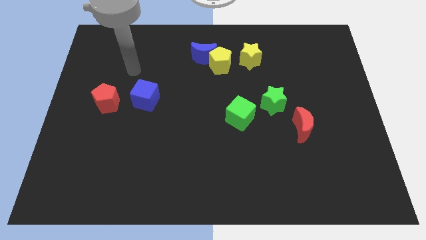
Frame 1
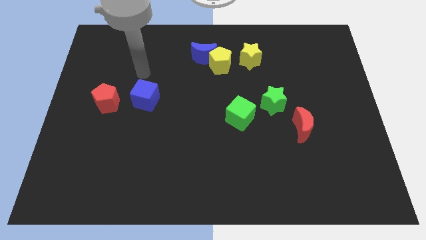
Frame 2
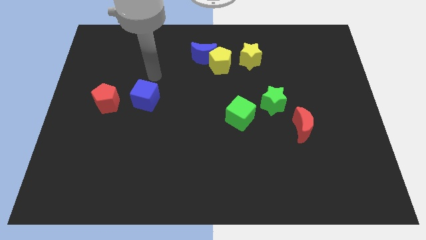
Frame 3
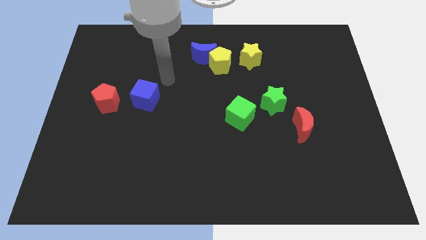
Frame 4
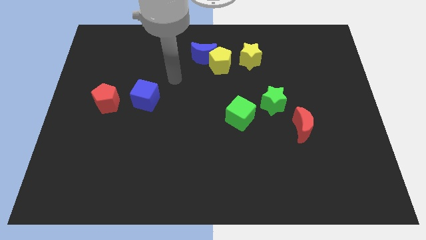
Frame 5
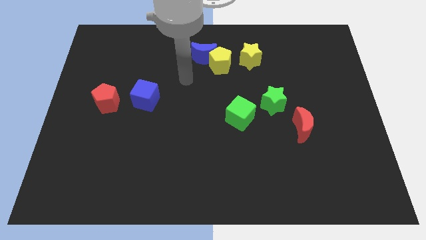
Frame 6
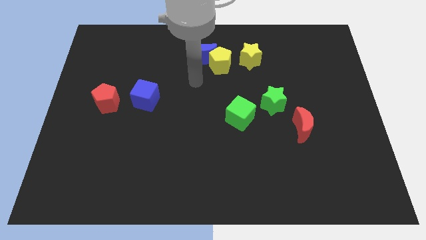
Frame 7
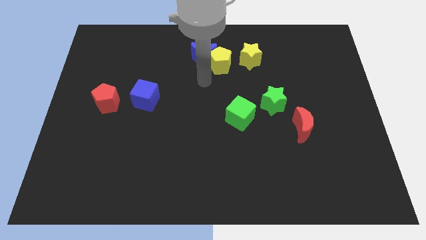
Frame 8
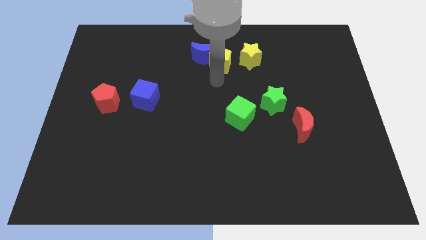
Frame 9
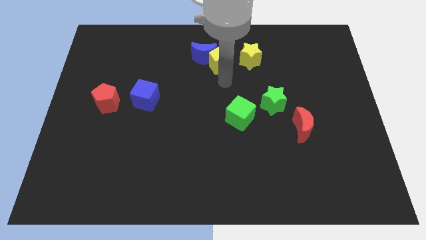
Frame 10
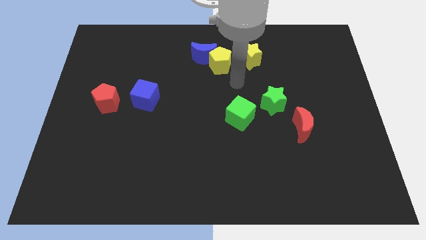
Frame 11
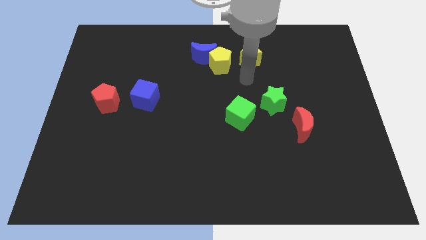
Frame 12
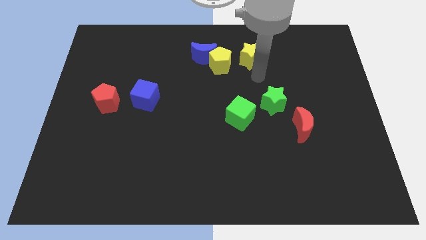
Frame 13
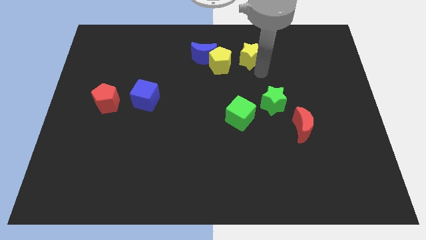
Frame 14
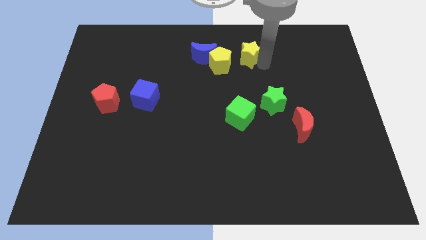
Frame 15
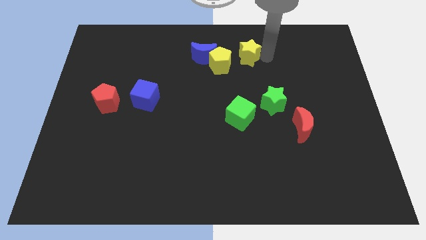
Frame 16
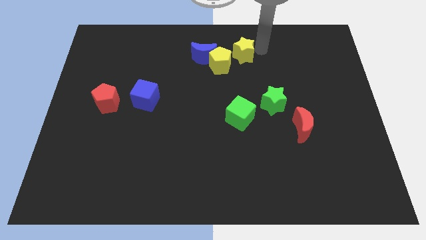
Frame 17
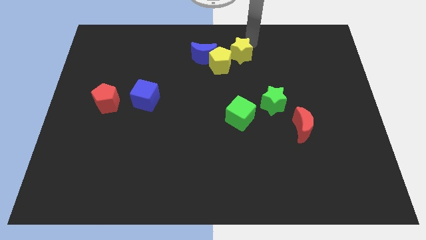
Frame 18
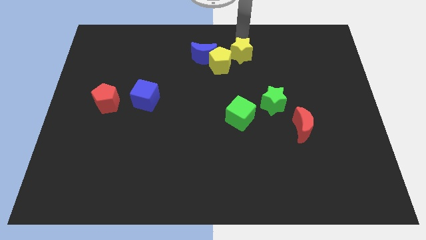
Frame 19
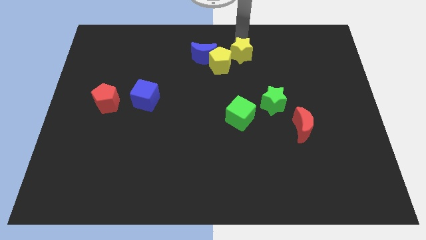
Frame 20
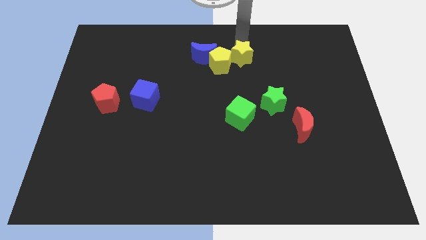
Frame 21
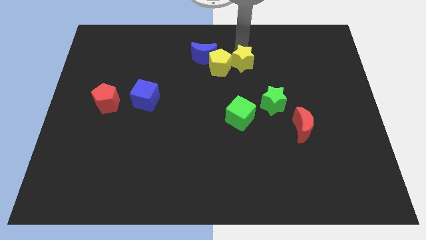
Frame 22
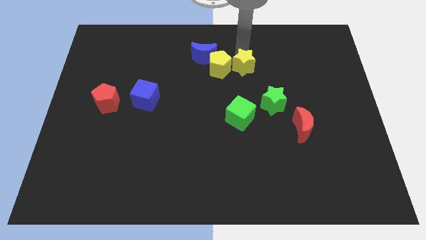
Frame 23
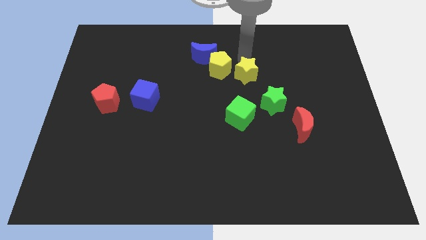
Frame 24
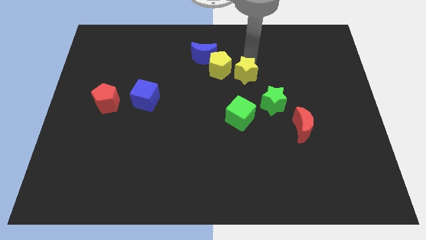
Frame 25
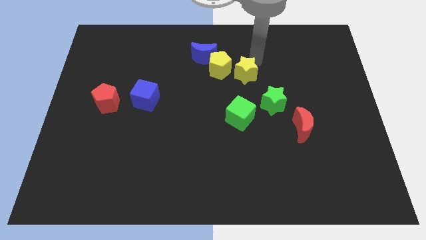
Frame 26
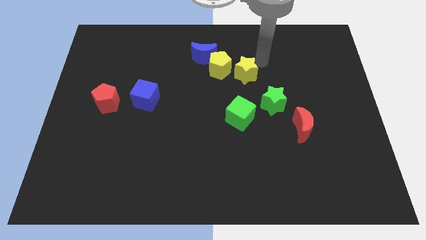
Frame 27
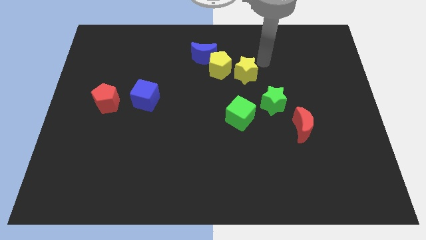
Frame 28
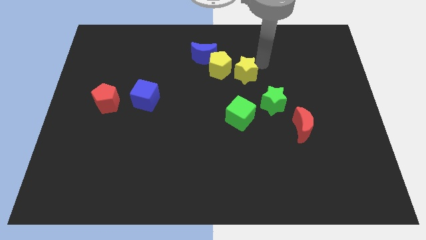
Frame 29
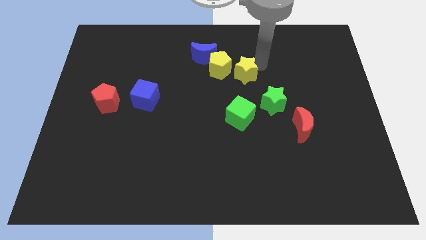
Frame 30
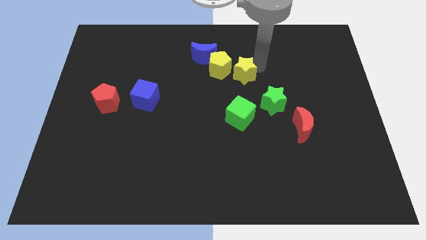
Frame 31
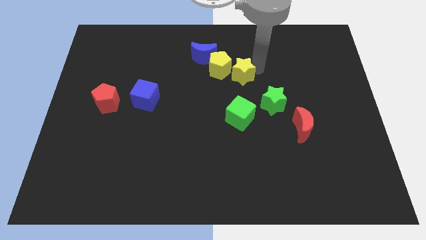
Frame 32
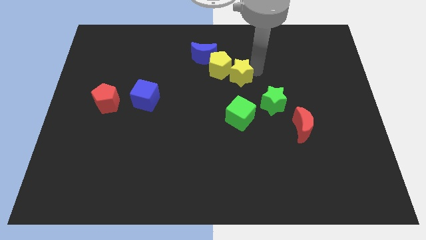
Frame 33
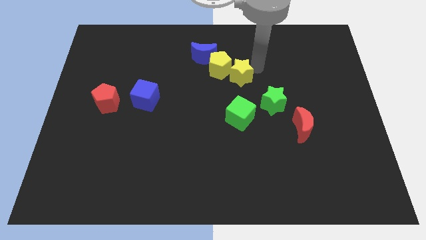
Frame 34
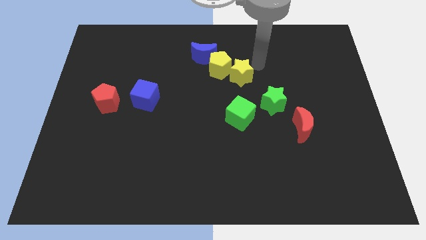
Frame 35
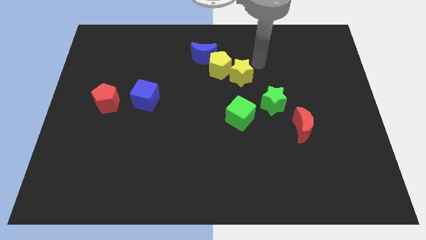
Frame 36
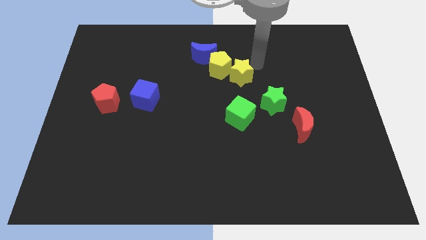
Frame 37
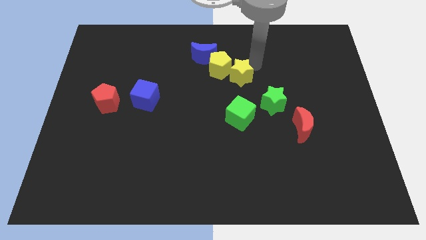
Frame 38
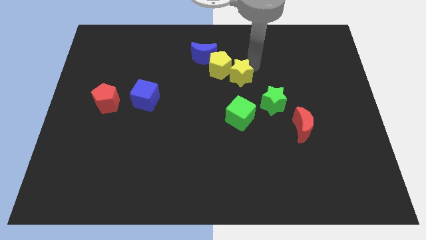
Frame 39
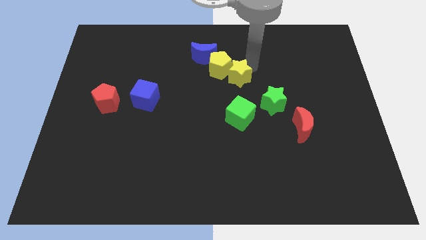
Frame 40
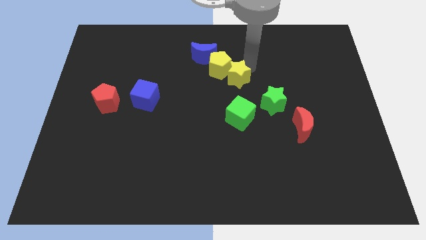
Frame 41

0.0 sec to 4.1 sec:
slide the yellow star a little bit diagonally down and left

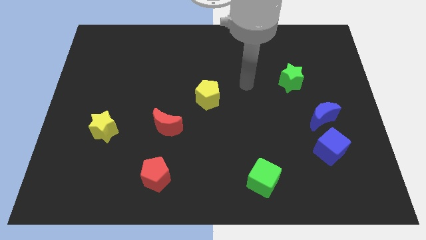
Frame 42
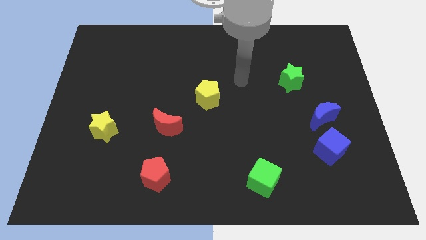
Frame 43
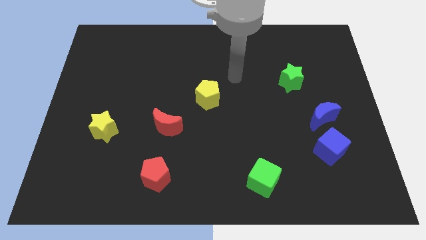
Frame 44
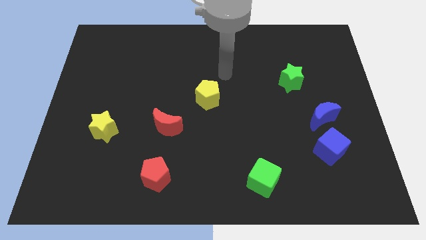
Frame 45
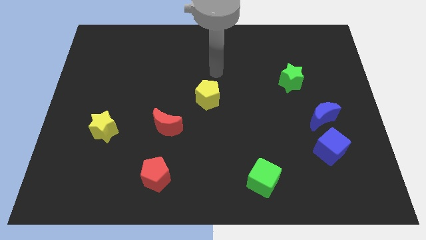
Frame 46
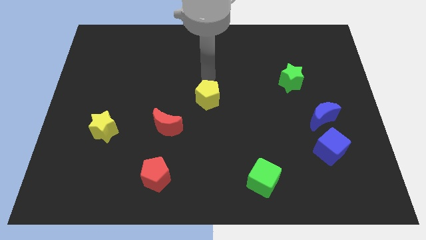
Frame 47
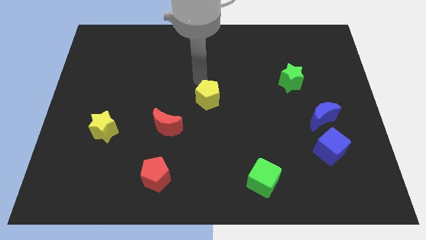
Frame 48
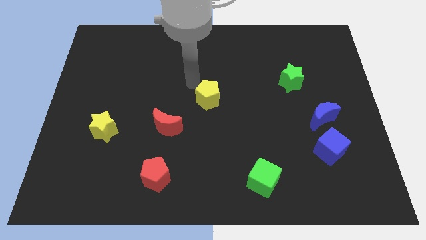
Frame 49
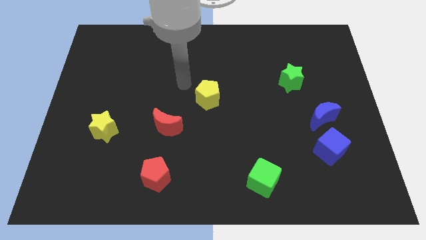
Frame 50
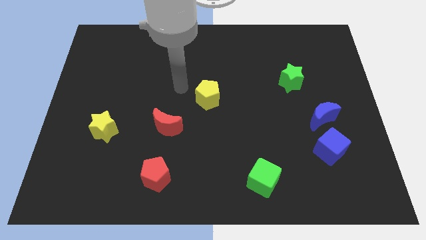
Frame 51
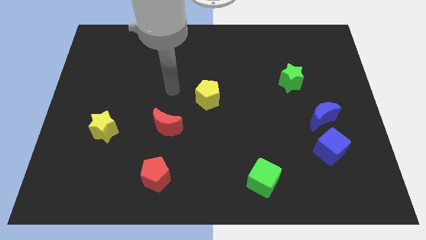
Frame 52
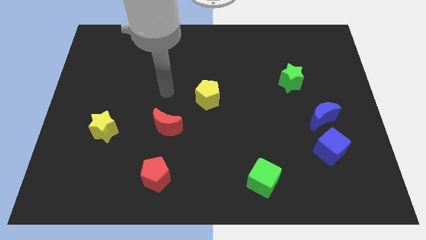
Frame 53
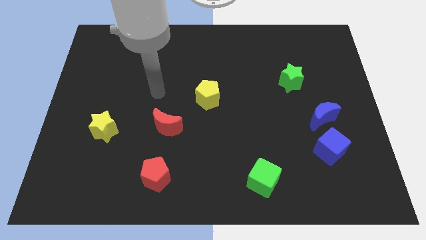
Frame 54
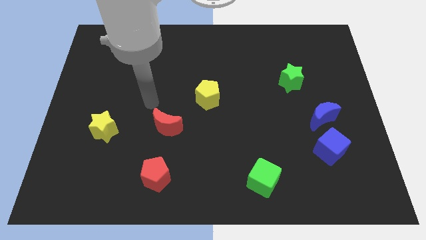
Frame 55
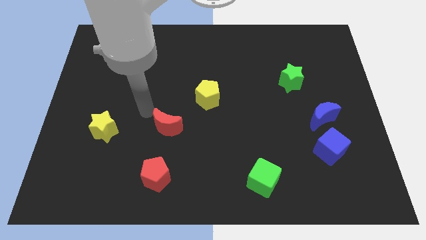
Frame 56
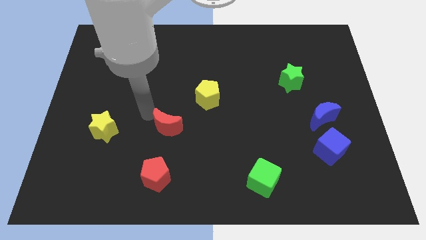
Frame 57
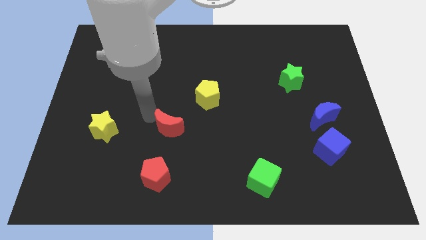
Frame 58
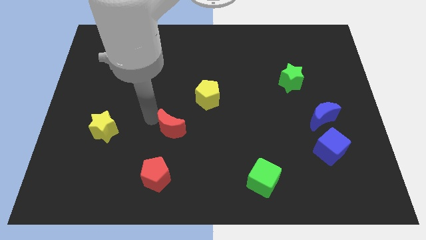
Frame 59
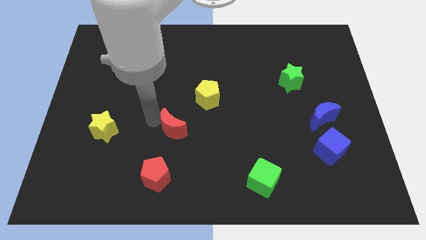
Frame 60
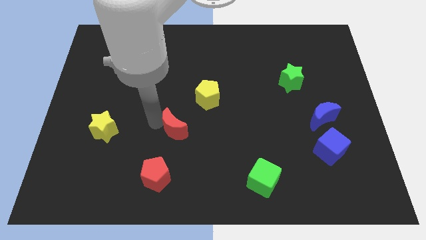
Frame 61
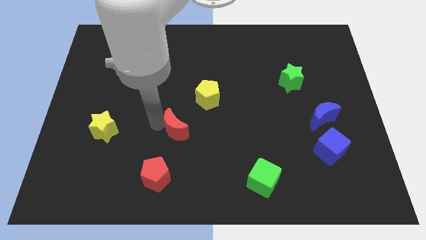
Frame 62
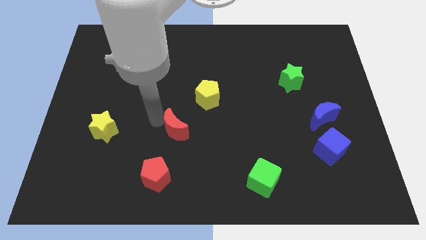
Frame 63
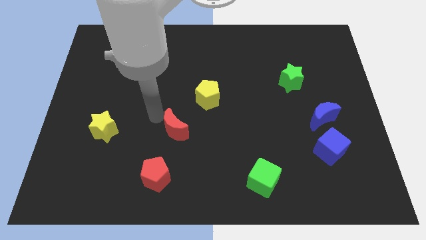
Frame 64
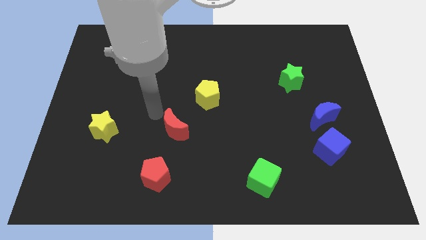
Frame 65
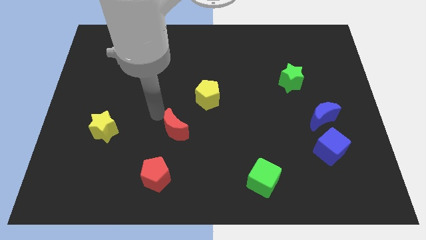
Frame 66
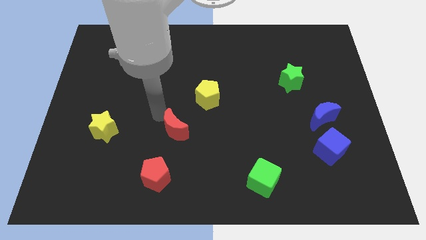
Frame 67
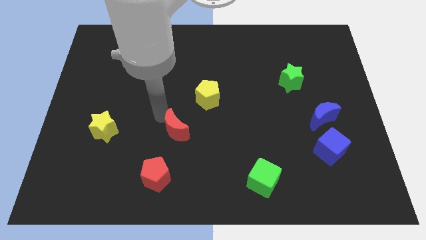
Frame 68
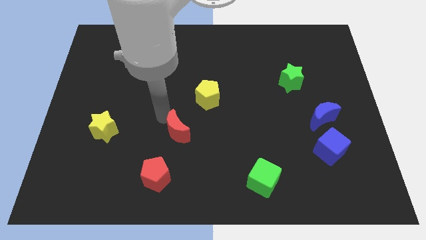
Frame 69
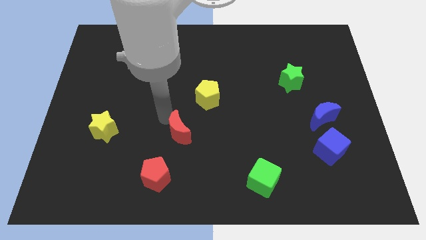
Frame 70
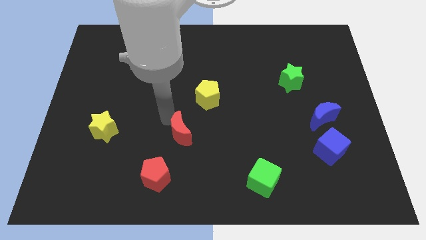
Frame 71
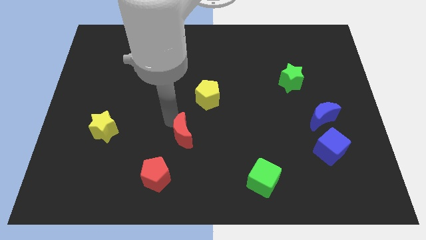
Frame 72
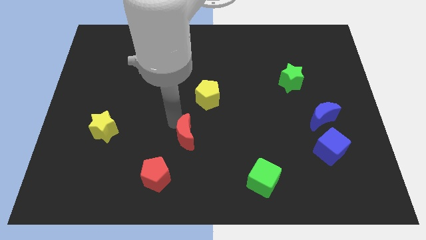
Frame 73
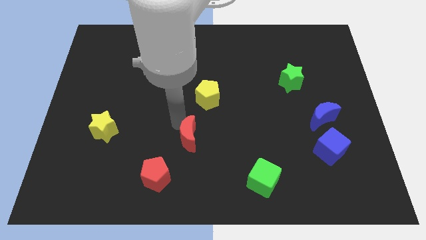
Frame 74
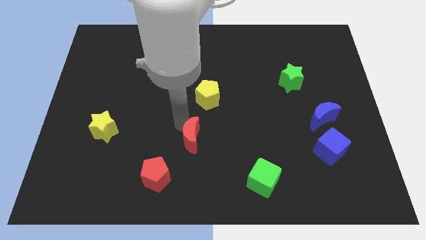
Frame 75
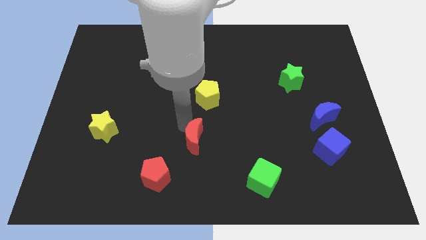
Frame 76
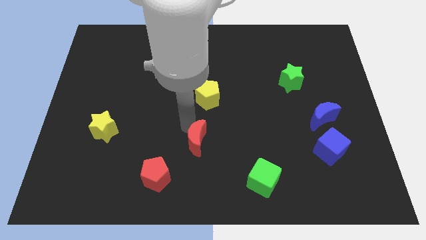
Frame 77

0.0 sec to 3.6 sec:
push the red moon a bit diagonally down and to the right

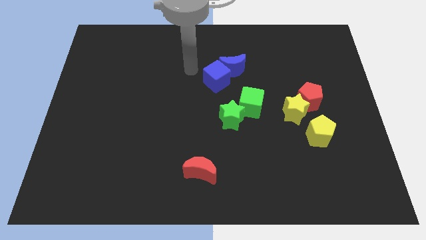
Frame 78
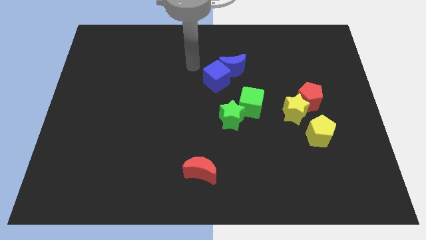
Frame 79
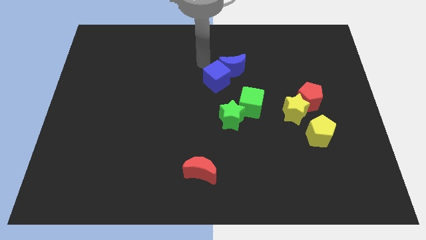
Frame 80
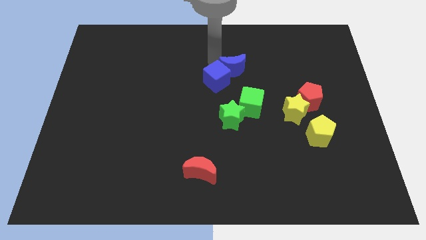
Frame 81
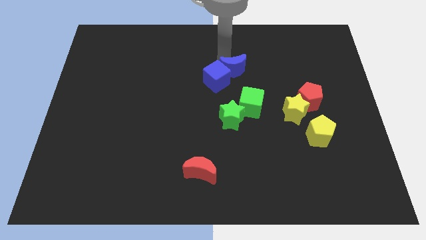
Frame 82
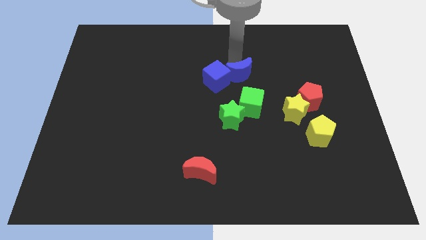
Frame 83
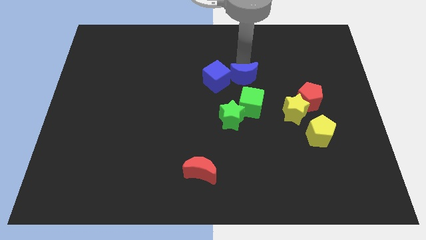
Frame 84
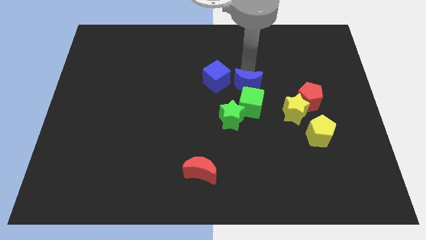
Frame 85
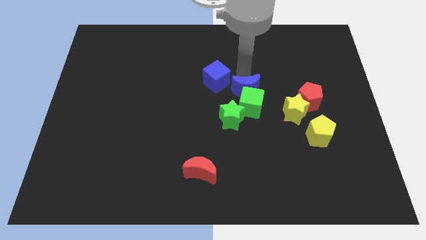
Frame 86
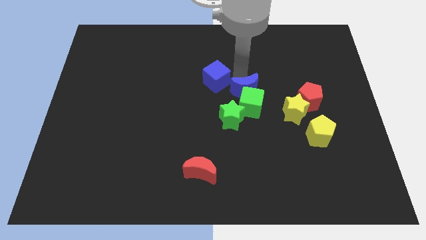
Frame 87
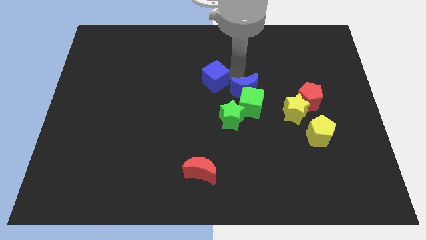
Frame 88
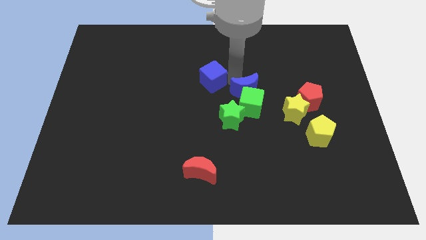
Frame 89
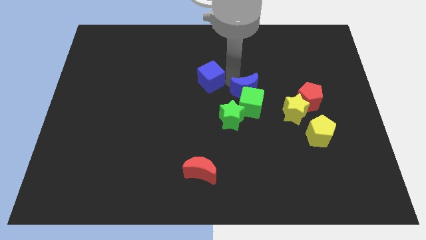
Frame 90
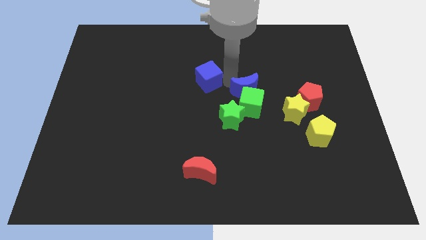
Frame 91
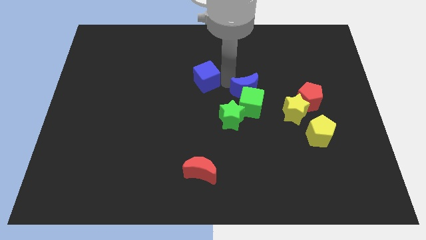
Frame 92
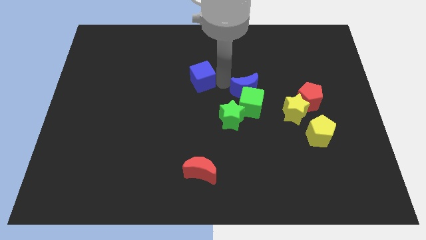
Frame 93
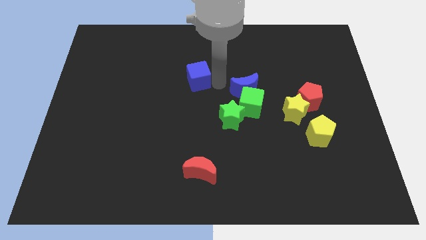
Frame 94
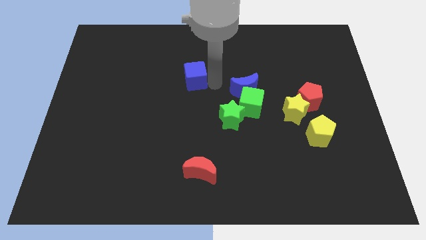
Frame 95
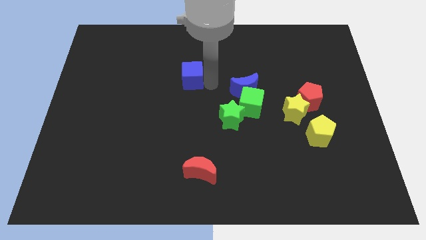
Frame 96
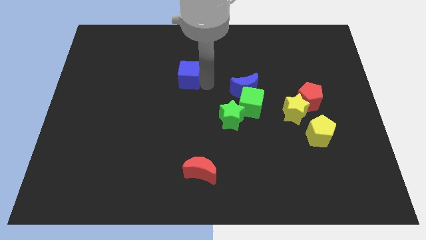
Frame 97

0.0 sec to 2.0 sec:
push the blue cube a little left
